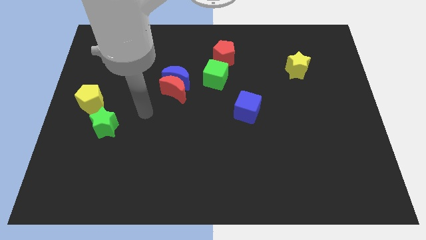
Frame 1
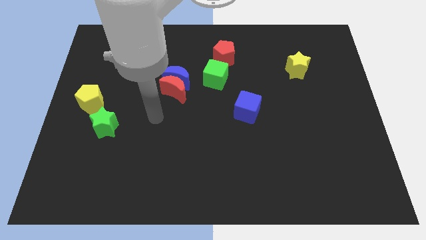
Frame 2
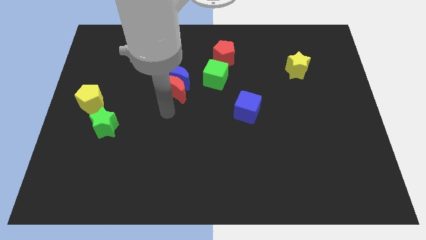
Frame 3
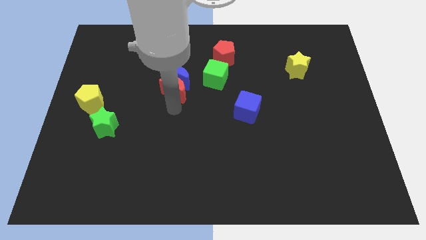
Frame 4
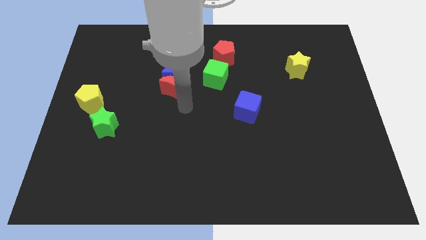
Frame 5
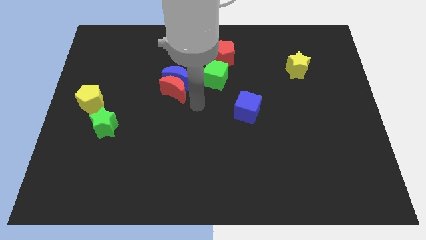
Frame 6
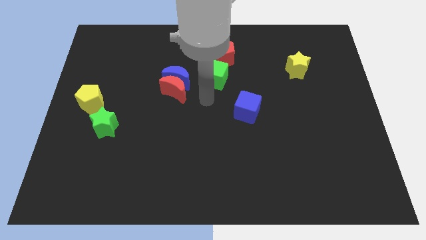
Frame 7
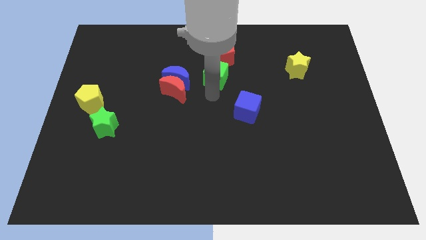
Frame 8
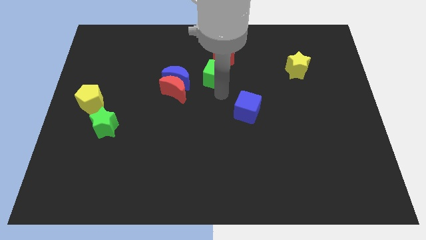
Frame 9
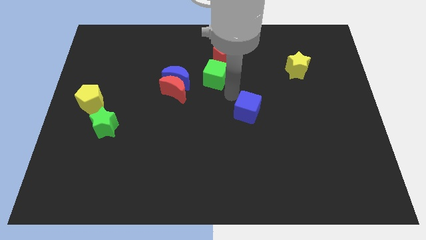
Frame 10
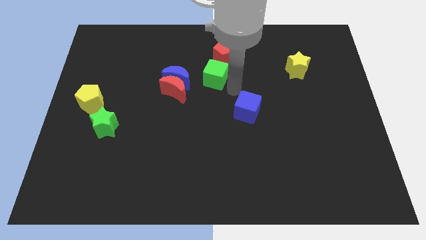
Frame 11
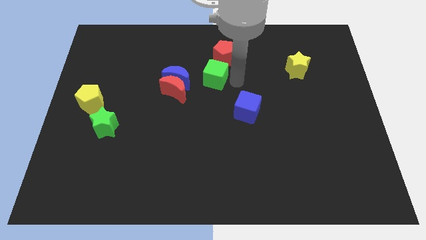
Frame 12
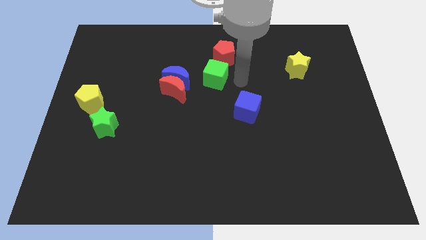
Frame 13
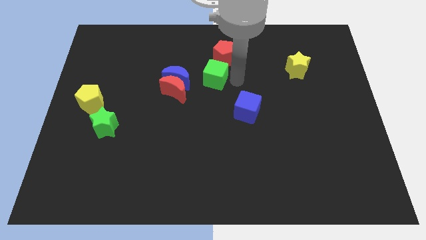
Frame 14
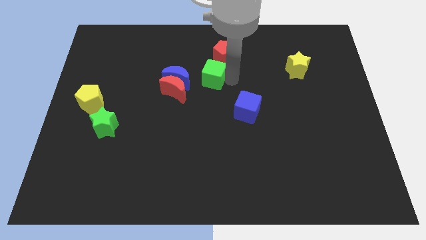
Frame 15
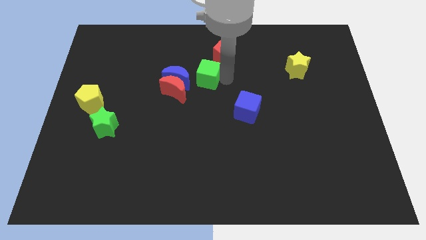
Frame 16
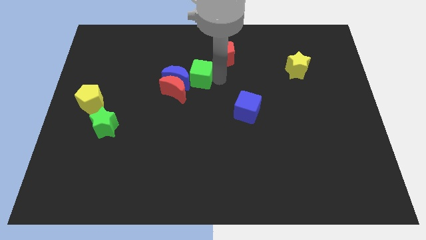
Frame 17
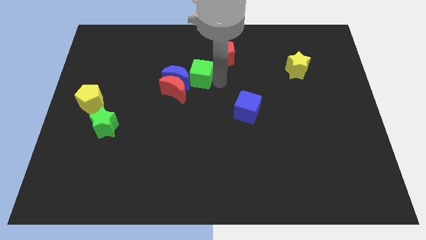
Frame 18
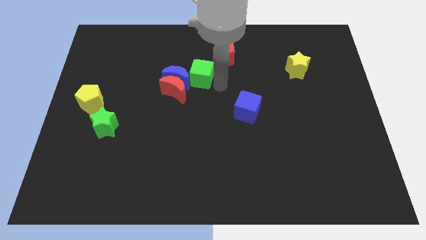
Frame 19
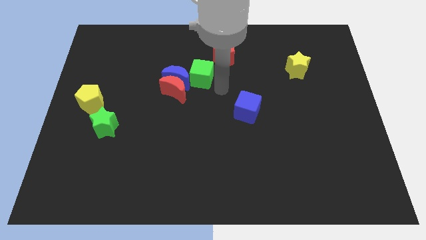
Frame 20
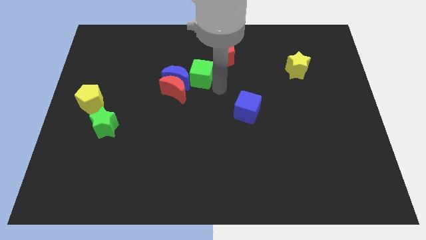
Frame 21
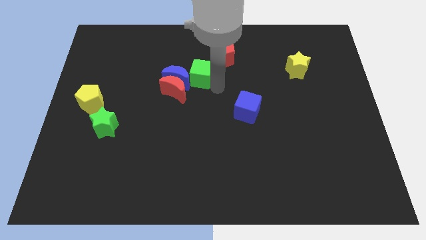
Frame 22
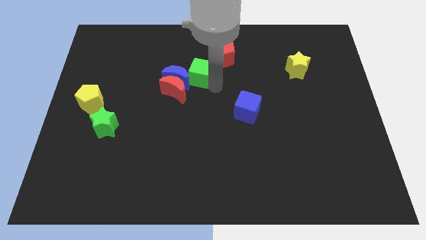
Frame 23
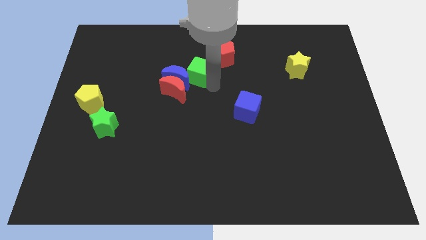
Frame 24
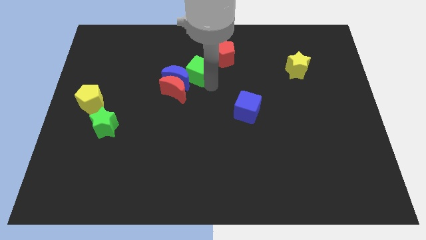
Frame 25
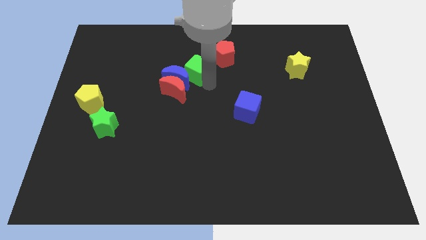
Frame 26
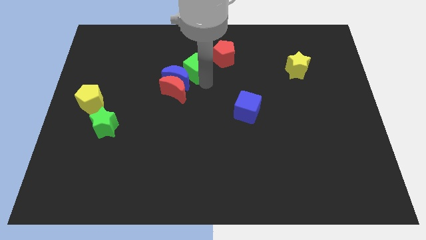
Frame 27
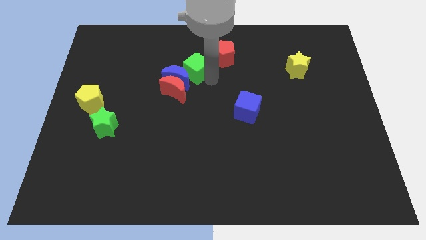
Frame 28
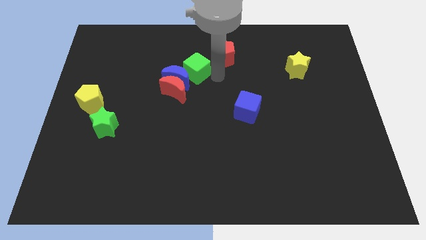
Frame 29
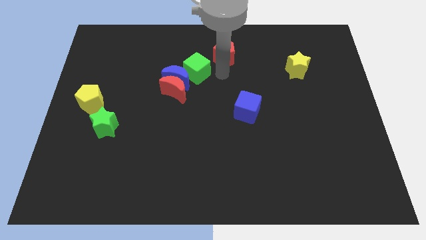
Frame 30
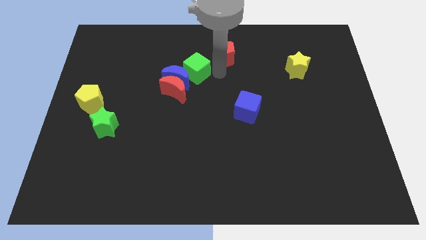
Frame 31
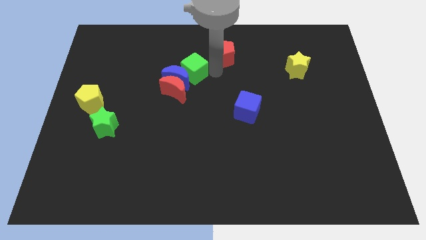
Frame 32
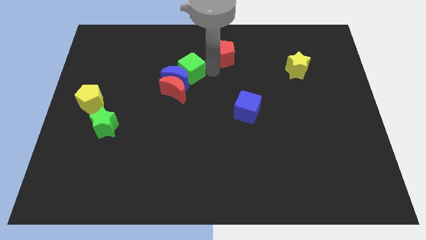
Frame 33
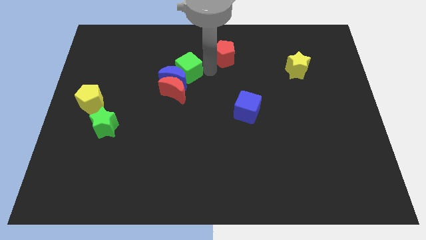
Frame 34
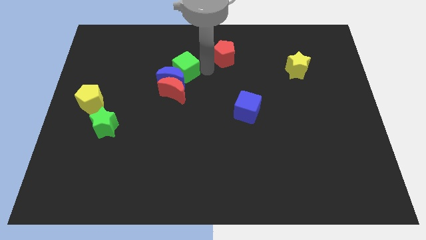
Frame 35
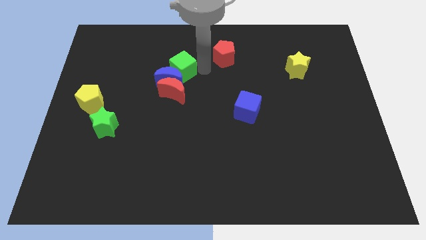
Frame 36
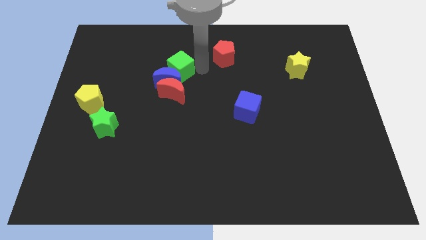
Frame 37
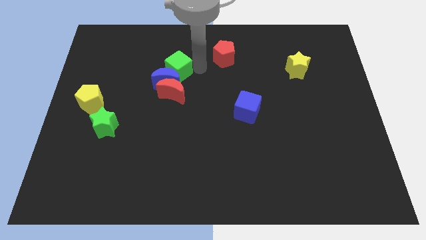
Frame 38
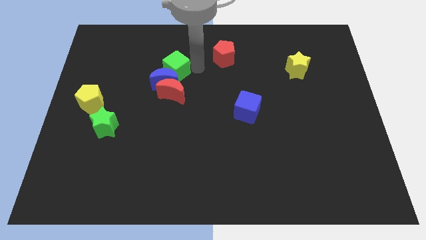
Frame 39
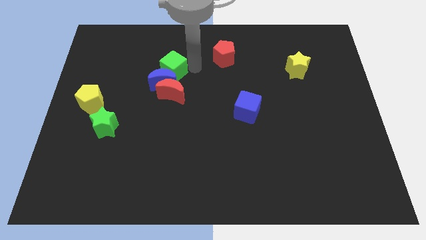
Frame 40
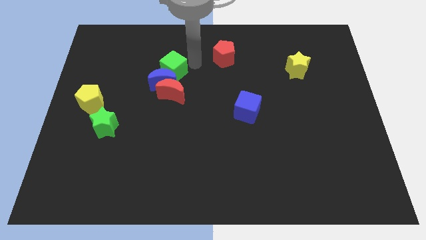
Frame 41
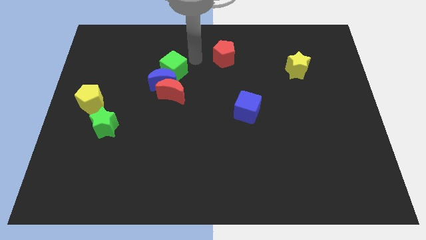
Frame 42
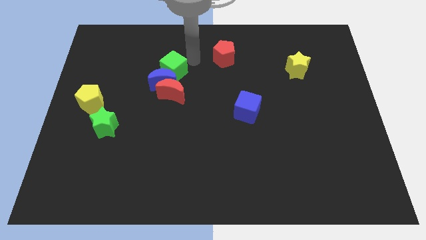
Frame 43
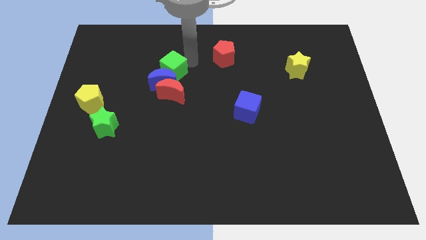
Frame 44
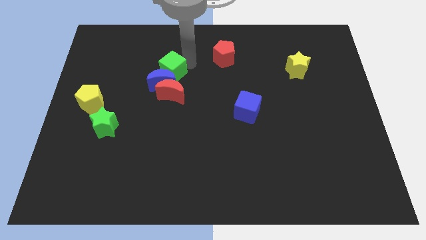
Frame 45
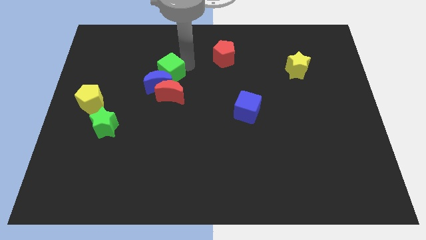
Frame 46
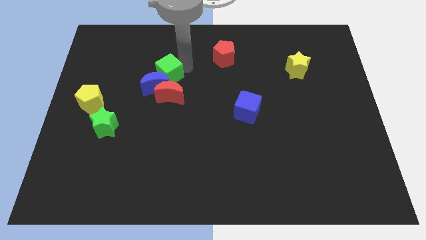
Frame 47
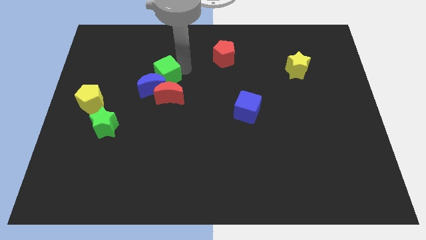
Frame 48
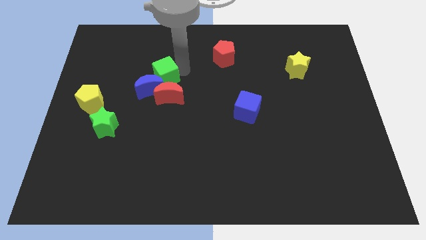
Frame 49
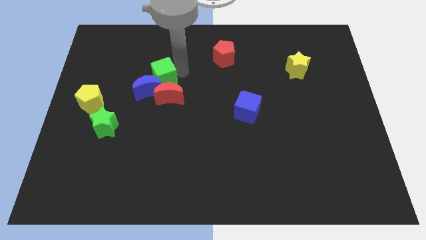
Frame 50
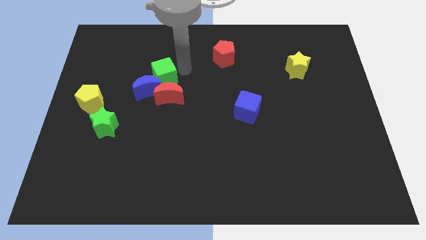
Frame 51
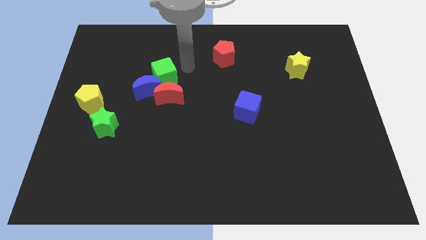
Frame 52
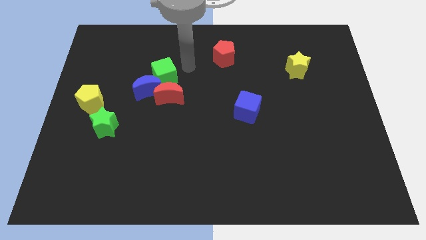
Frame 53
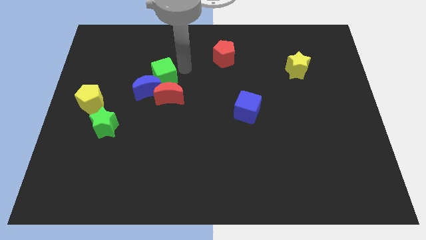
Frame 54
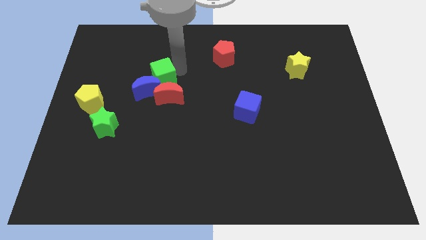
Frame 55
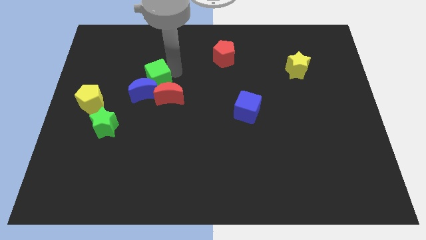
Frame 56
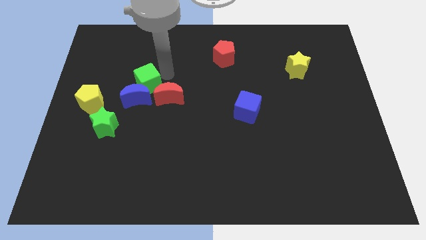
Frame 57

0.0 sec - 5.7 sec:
push the green cube to the left of the red moon

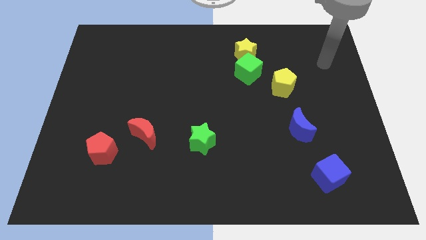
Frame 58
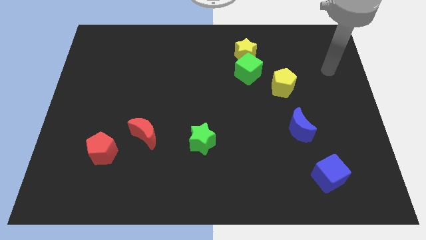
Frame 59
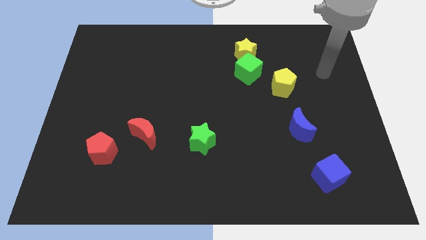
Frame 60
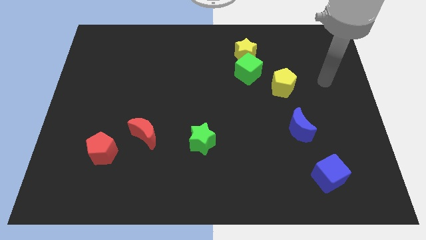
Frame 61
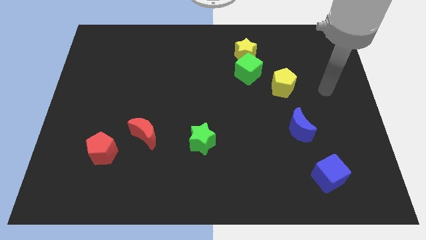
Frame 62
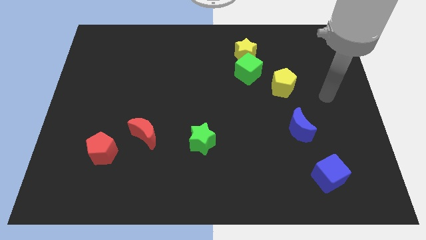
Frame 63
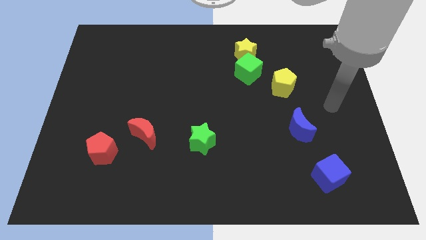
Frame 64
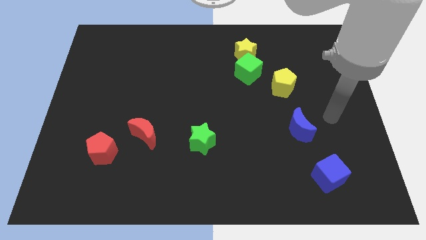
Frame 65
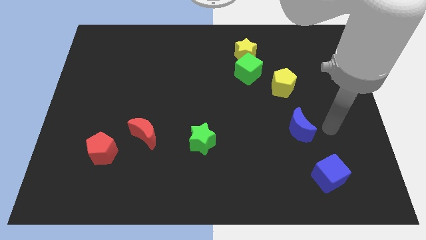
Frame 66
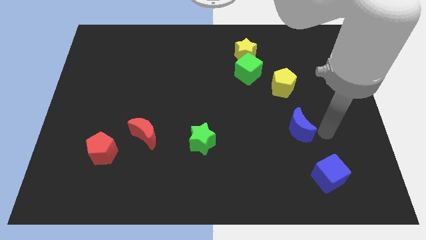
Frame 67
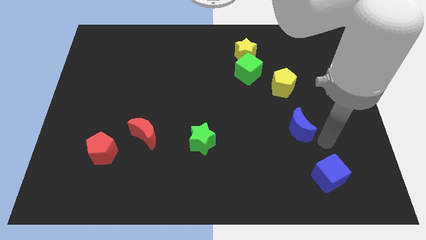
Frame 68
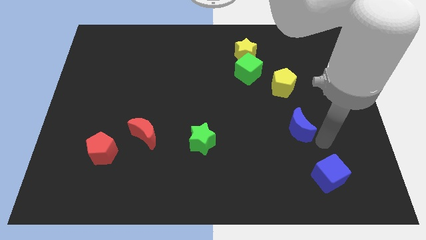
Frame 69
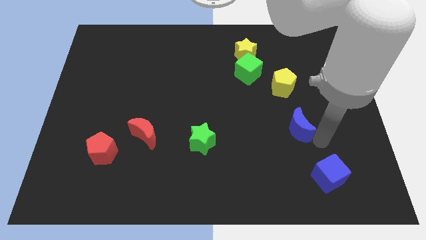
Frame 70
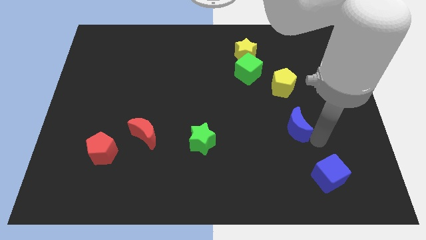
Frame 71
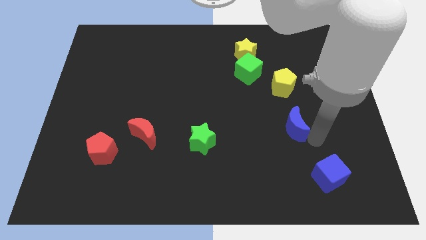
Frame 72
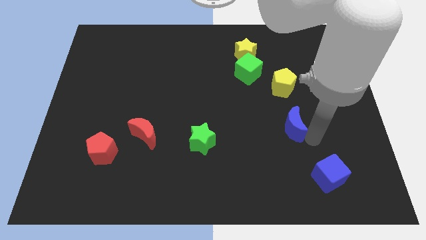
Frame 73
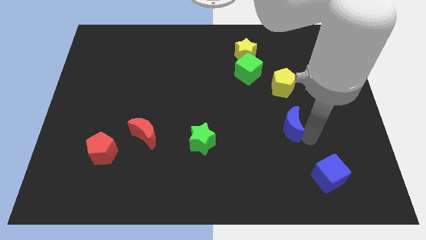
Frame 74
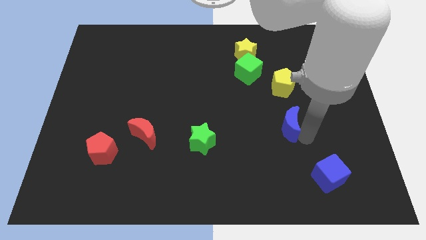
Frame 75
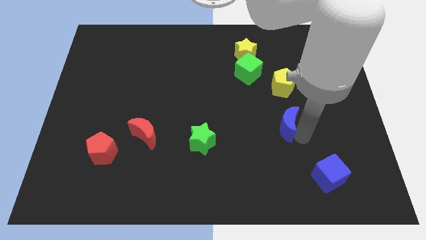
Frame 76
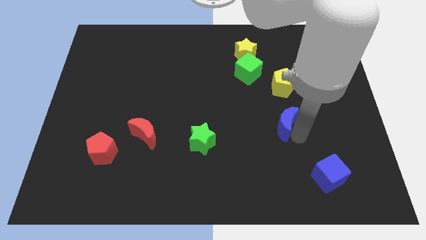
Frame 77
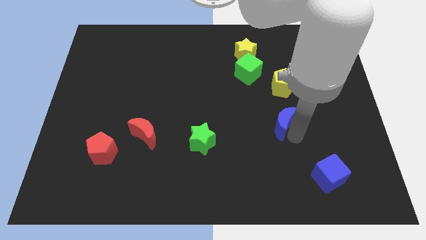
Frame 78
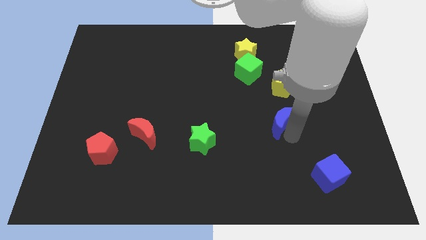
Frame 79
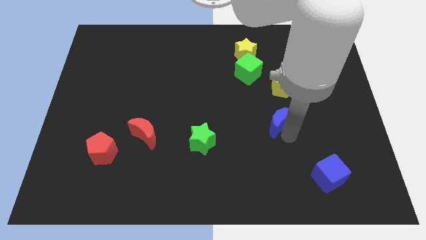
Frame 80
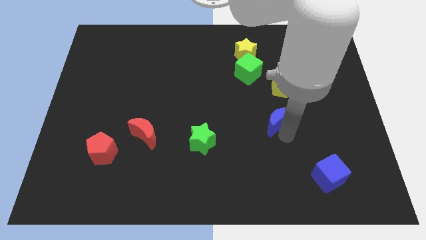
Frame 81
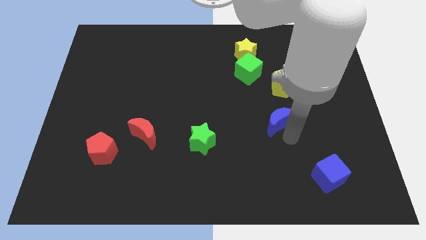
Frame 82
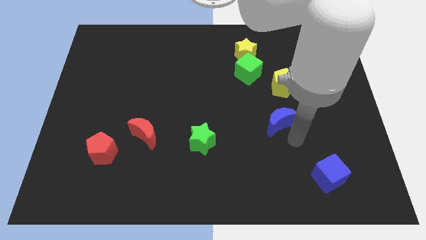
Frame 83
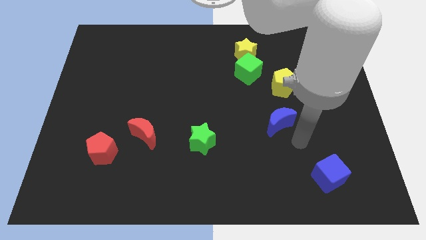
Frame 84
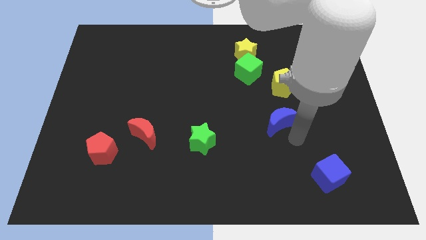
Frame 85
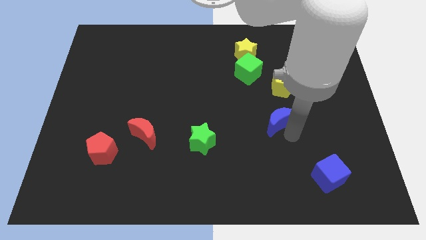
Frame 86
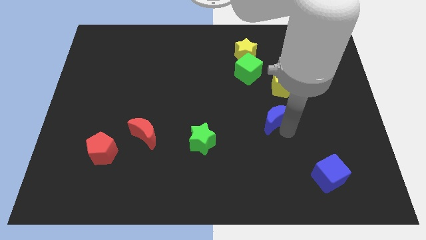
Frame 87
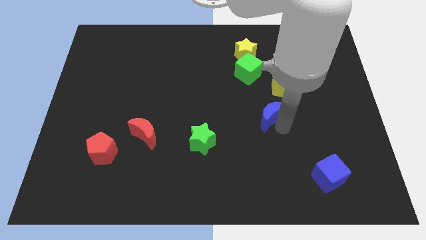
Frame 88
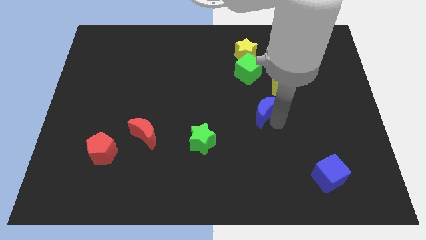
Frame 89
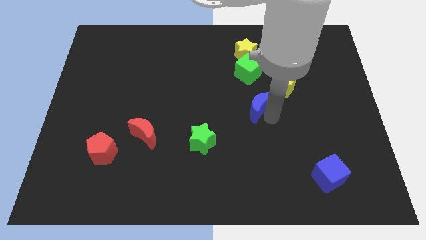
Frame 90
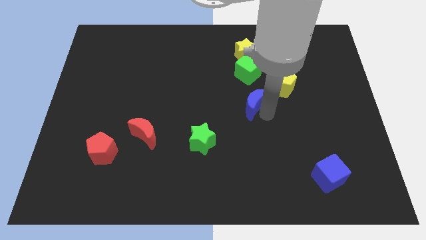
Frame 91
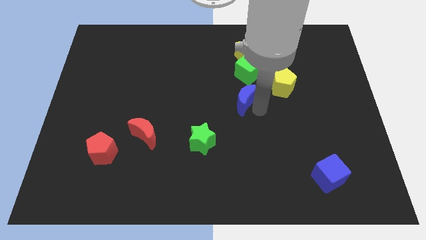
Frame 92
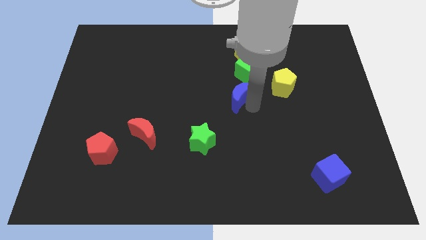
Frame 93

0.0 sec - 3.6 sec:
slide the blue moon to the bottom left side of the green cube
